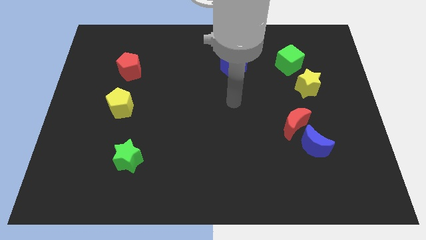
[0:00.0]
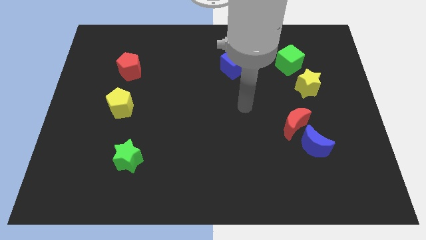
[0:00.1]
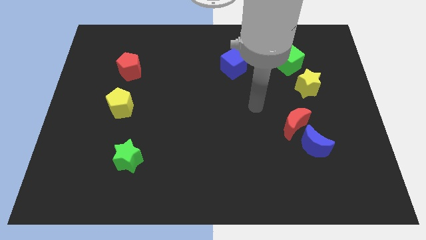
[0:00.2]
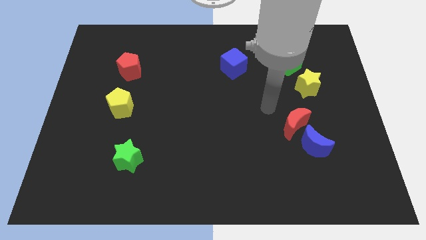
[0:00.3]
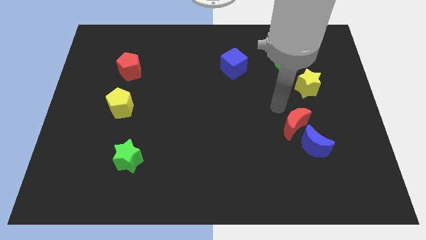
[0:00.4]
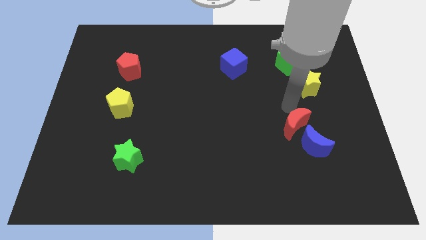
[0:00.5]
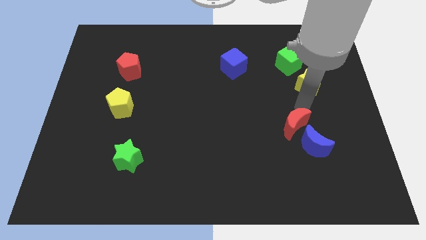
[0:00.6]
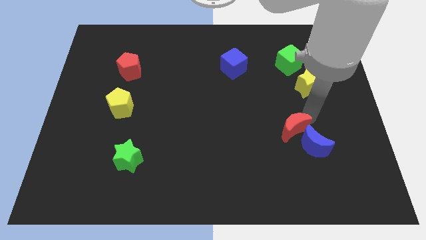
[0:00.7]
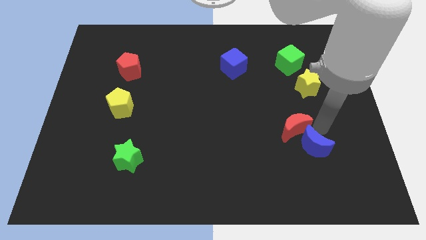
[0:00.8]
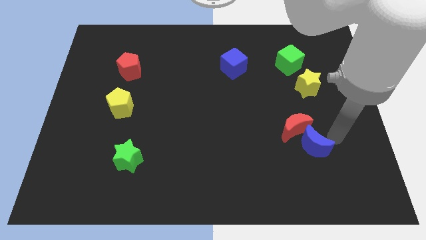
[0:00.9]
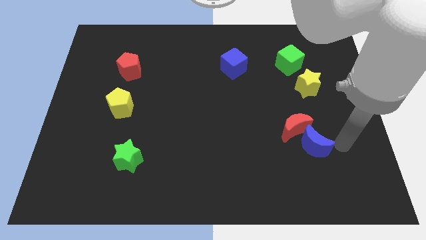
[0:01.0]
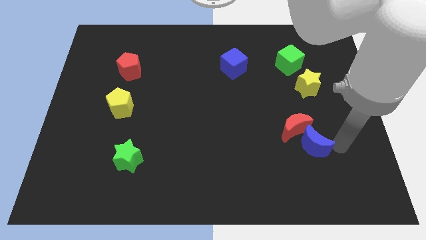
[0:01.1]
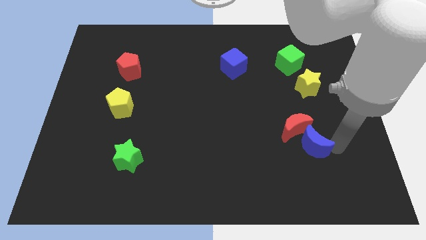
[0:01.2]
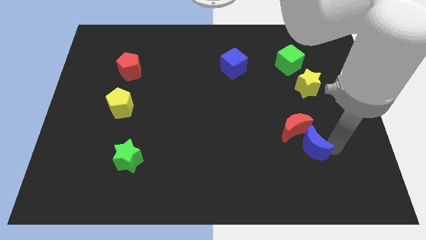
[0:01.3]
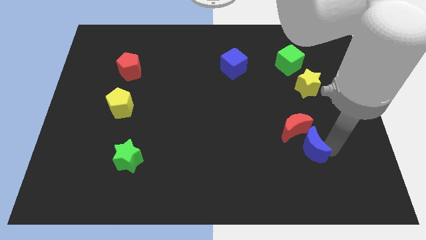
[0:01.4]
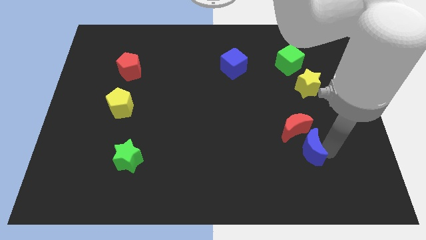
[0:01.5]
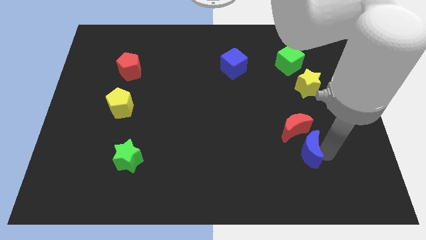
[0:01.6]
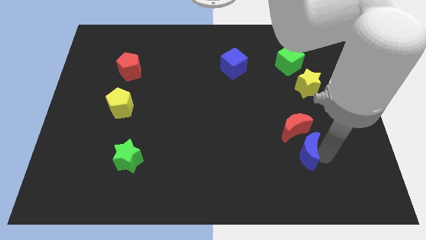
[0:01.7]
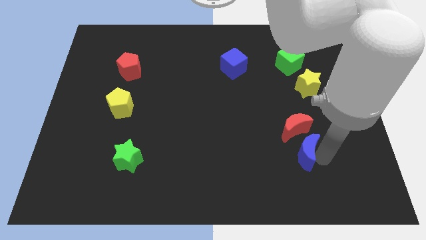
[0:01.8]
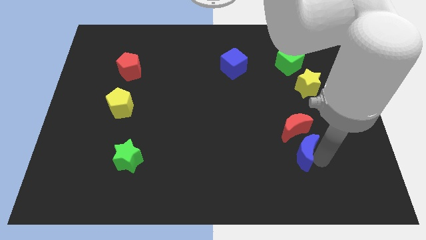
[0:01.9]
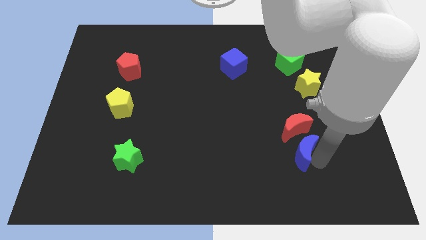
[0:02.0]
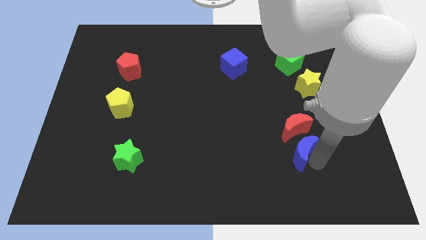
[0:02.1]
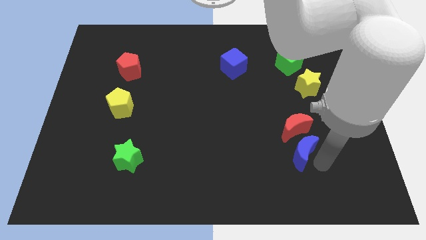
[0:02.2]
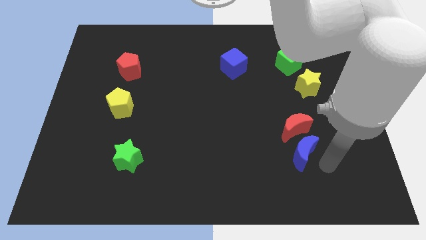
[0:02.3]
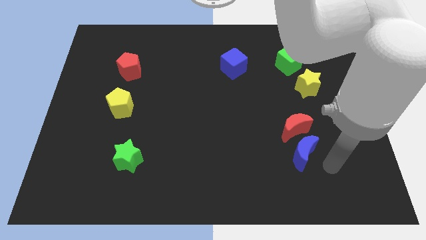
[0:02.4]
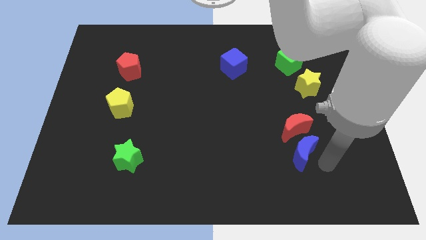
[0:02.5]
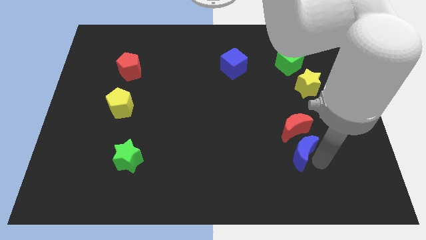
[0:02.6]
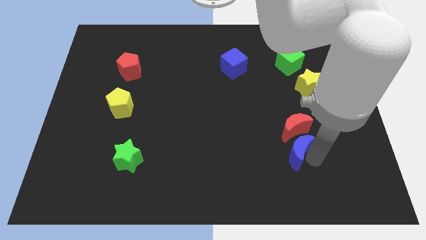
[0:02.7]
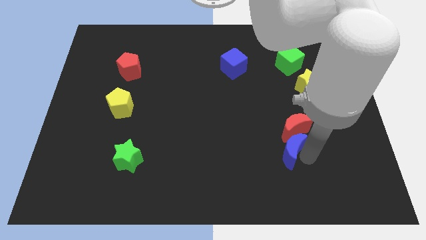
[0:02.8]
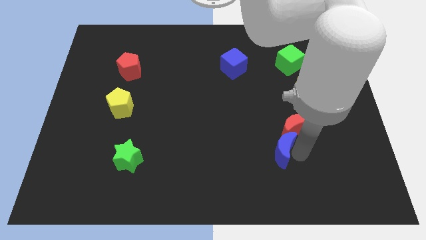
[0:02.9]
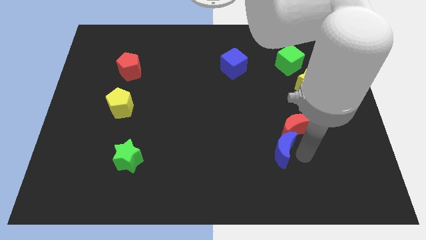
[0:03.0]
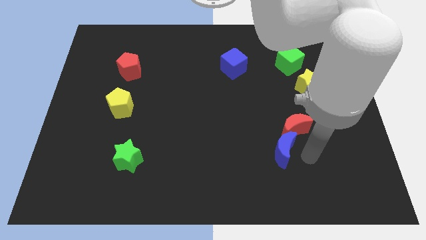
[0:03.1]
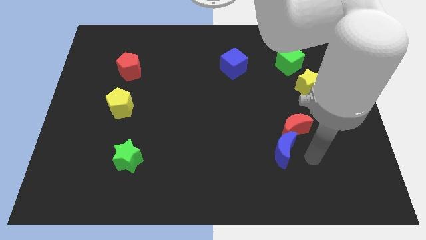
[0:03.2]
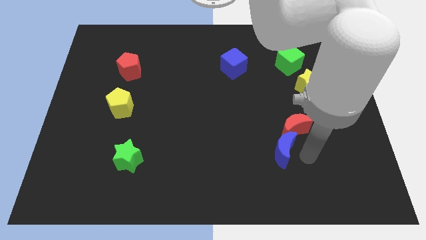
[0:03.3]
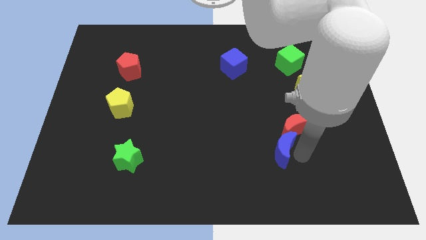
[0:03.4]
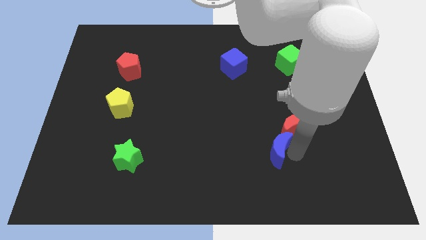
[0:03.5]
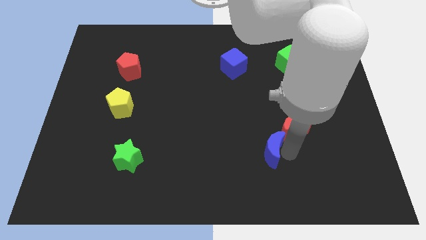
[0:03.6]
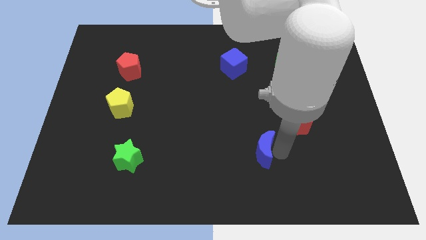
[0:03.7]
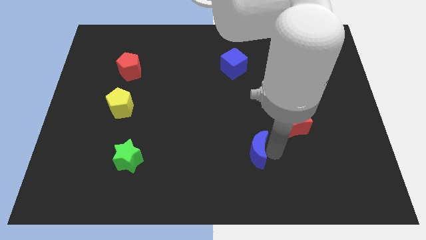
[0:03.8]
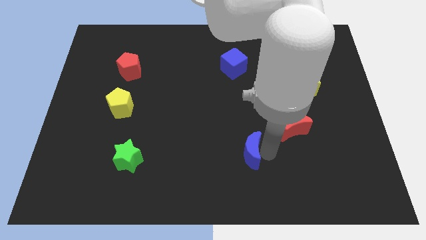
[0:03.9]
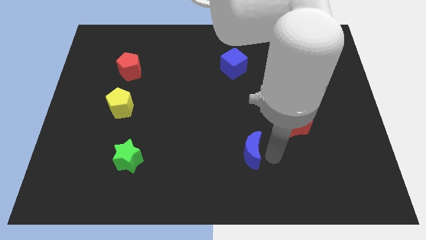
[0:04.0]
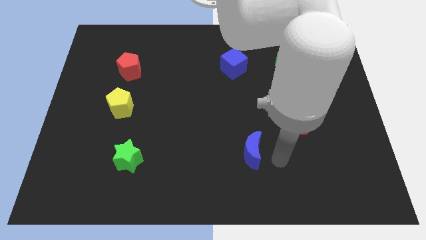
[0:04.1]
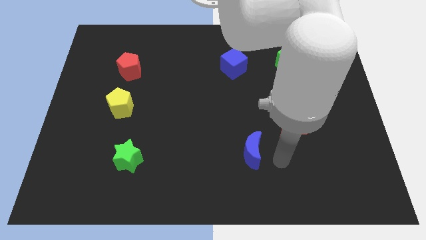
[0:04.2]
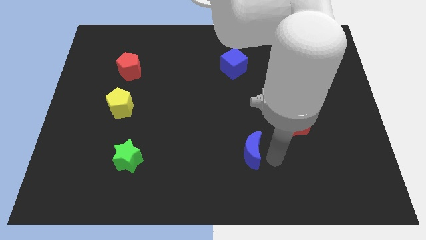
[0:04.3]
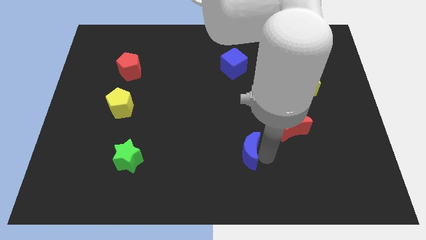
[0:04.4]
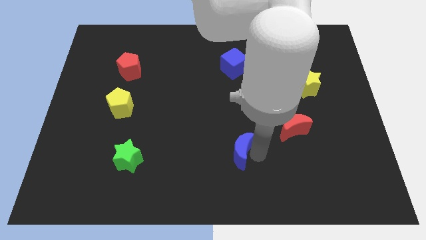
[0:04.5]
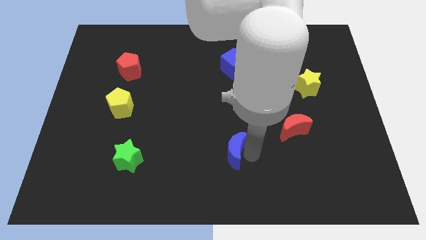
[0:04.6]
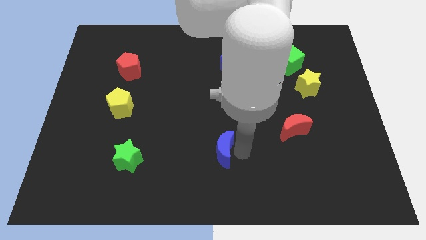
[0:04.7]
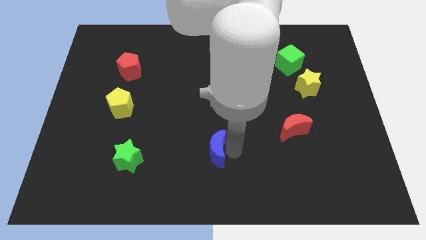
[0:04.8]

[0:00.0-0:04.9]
move the blue moon left

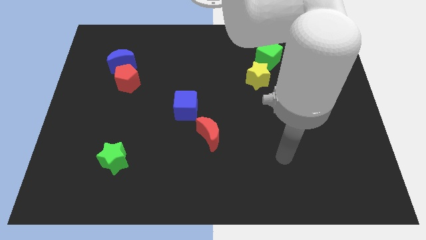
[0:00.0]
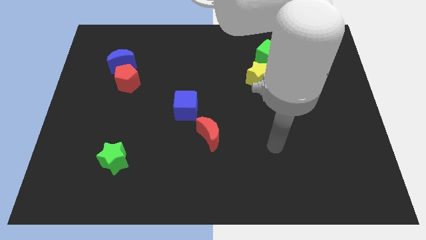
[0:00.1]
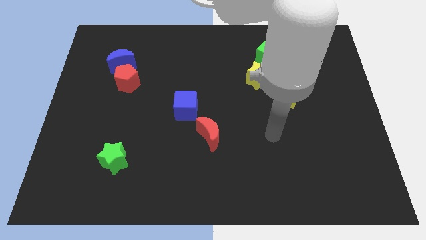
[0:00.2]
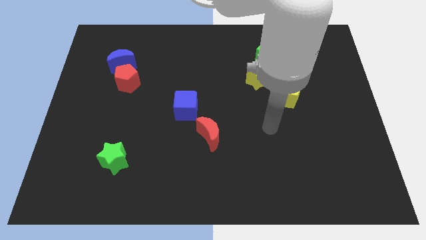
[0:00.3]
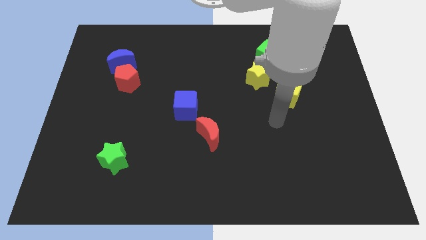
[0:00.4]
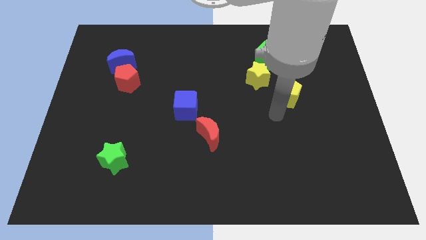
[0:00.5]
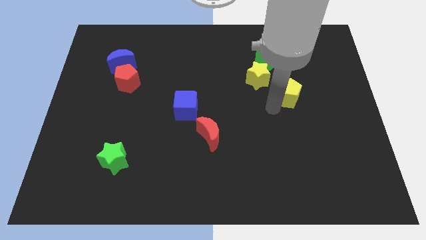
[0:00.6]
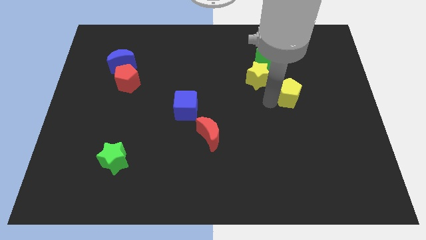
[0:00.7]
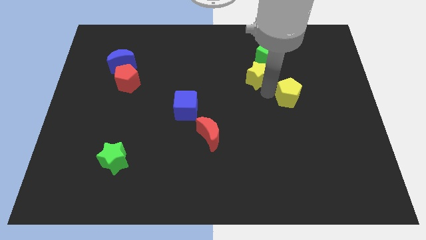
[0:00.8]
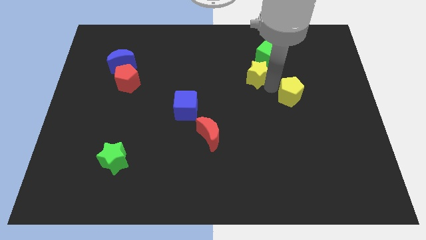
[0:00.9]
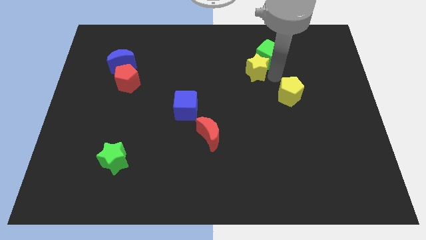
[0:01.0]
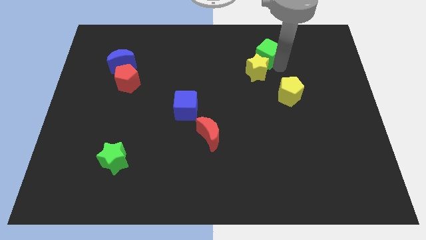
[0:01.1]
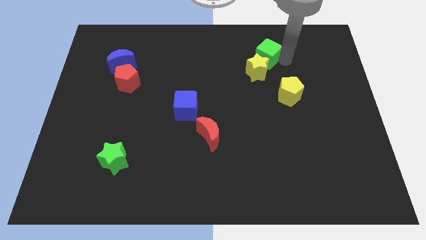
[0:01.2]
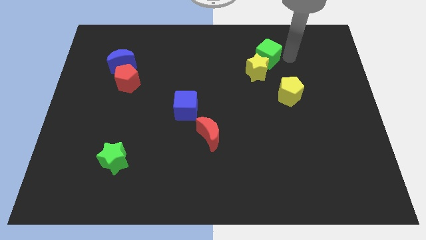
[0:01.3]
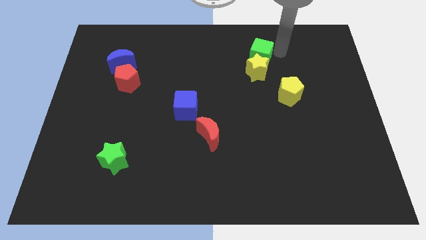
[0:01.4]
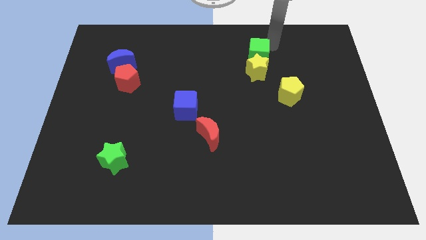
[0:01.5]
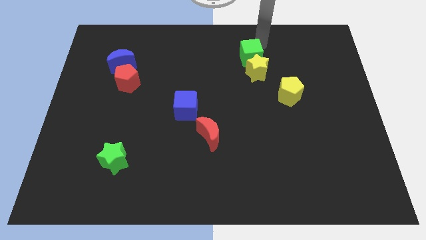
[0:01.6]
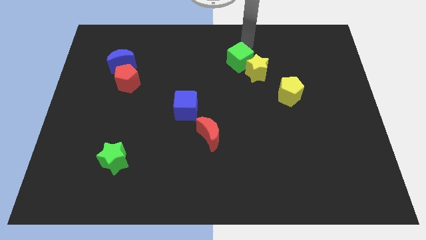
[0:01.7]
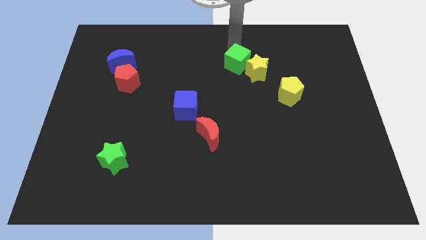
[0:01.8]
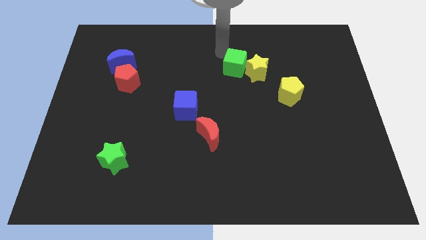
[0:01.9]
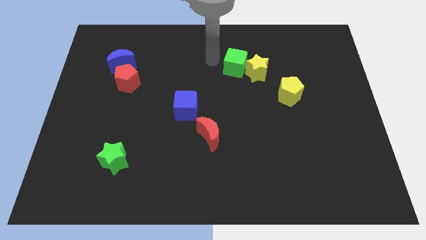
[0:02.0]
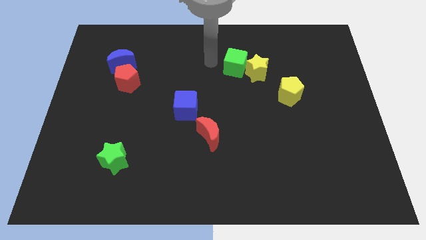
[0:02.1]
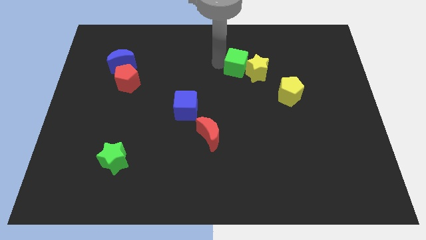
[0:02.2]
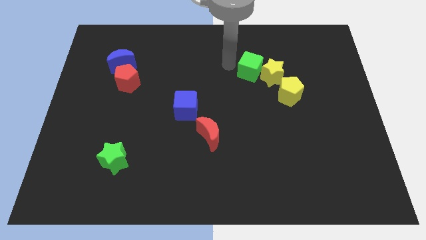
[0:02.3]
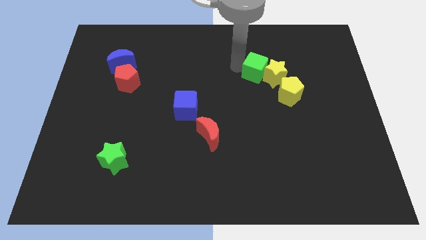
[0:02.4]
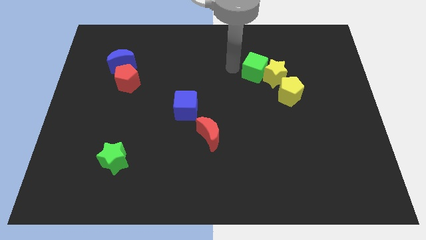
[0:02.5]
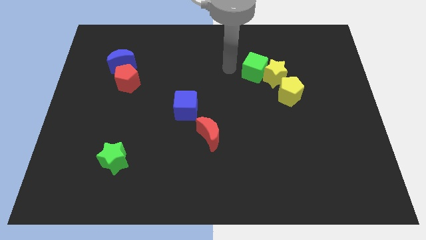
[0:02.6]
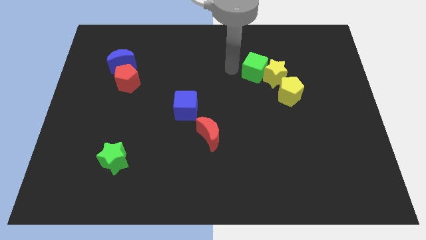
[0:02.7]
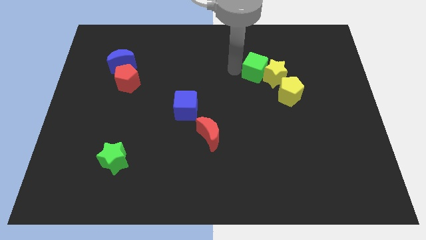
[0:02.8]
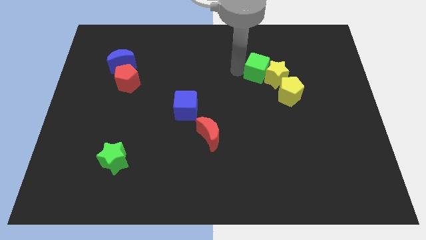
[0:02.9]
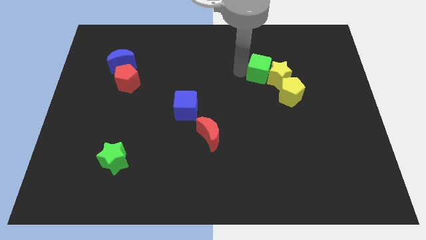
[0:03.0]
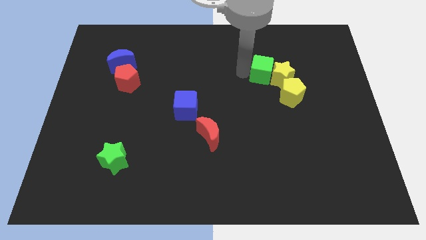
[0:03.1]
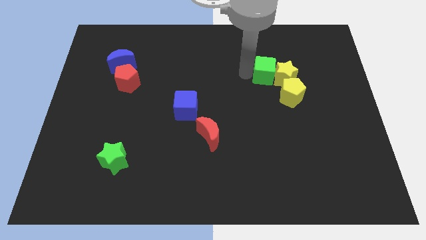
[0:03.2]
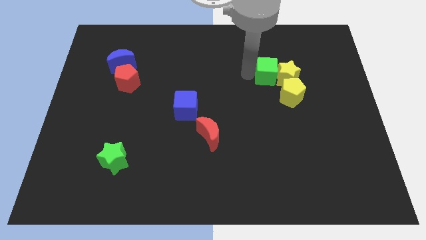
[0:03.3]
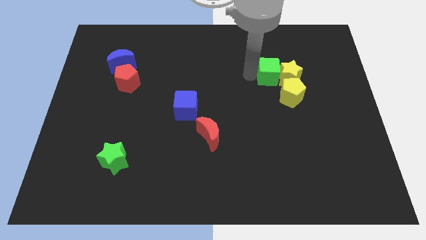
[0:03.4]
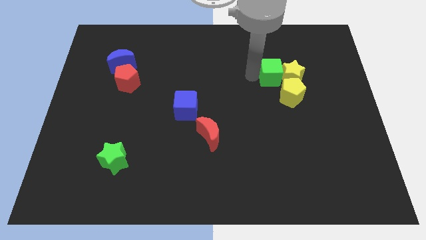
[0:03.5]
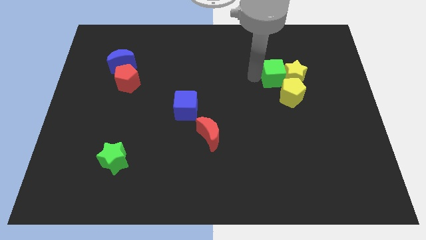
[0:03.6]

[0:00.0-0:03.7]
slide the green cube down a little bit
